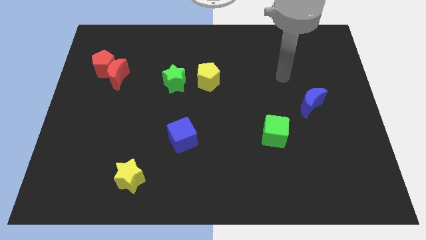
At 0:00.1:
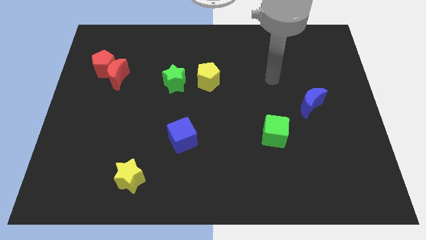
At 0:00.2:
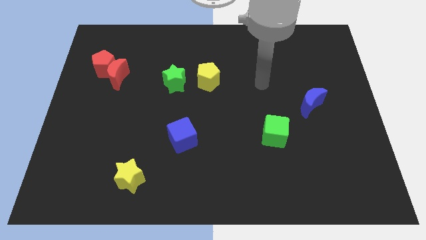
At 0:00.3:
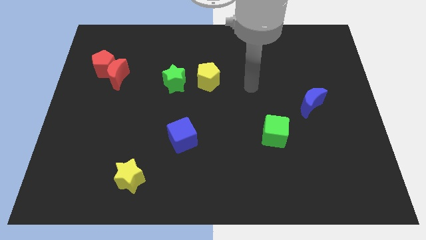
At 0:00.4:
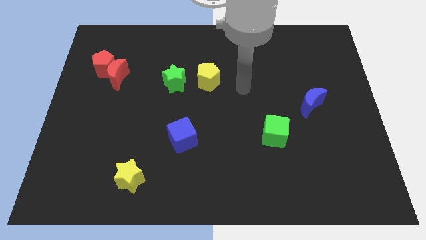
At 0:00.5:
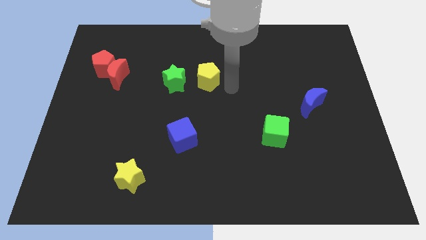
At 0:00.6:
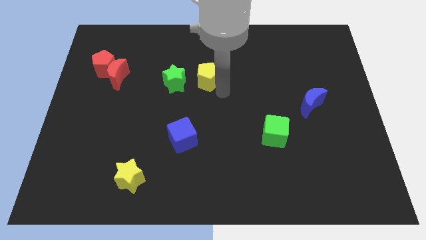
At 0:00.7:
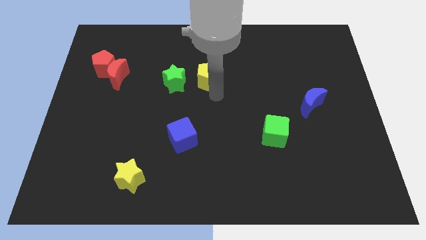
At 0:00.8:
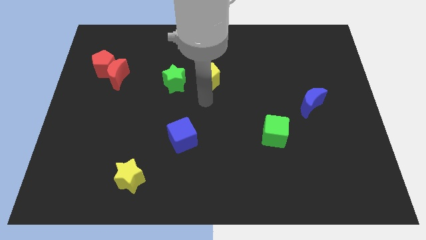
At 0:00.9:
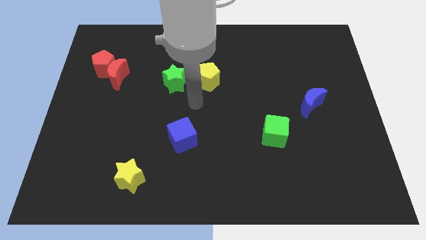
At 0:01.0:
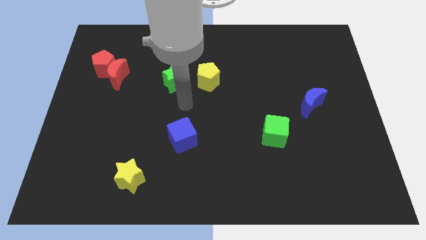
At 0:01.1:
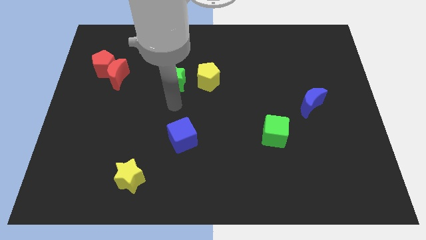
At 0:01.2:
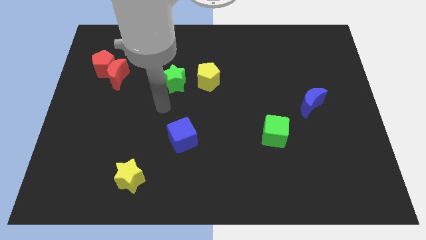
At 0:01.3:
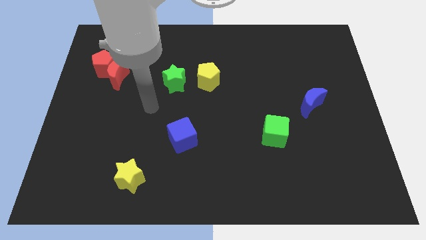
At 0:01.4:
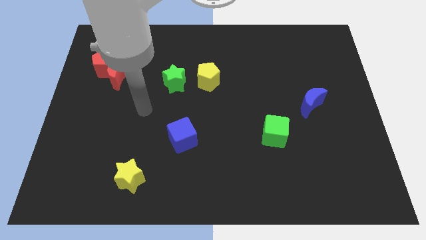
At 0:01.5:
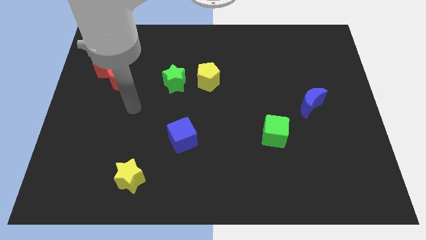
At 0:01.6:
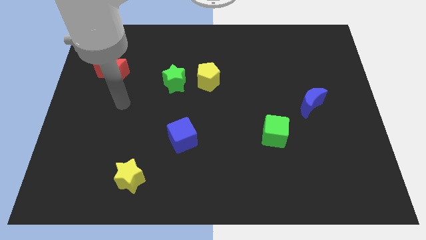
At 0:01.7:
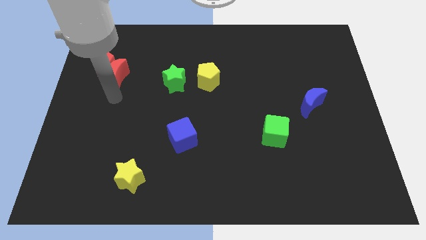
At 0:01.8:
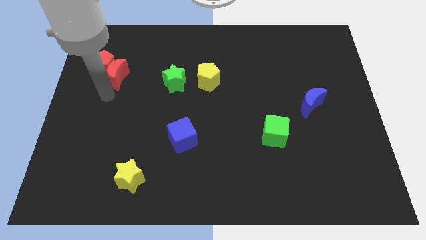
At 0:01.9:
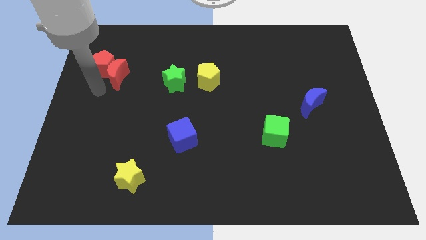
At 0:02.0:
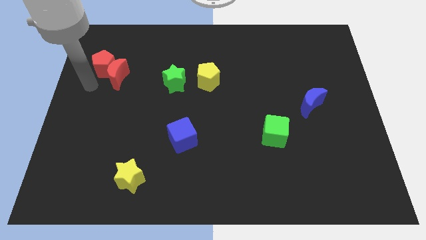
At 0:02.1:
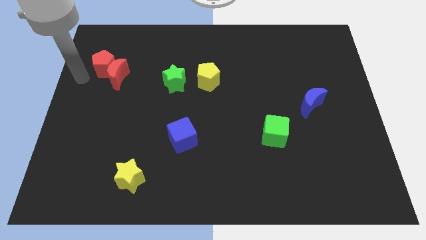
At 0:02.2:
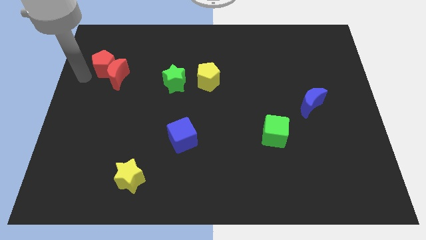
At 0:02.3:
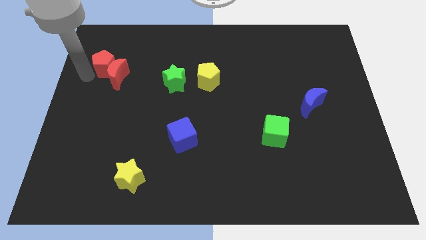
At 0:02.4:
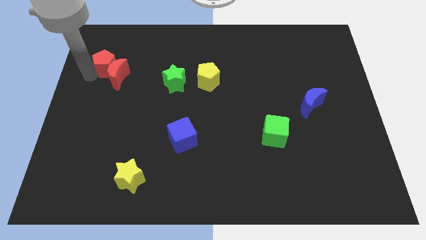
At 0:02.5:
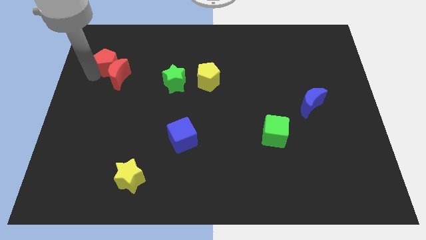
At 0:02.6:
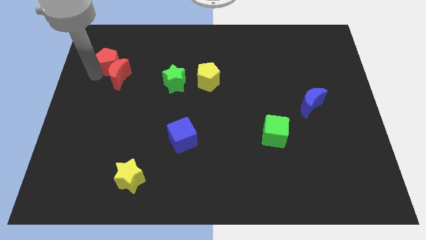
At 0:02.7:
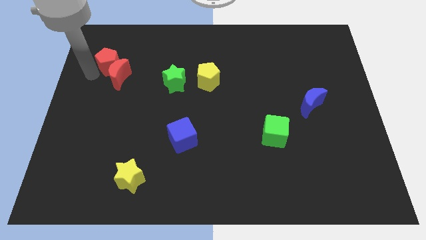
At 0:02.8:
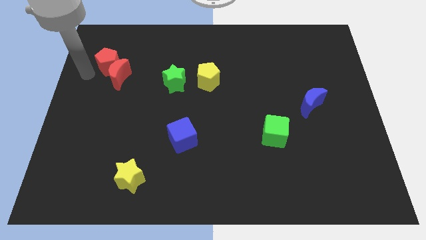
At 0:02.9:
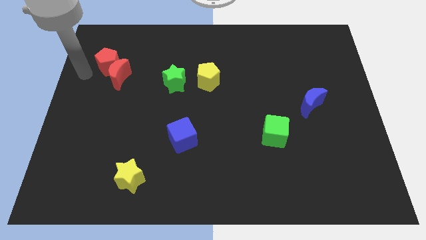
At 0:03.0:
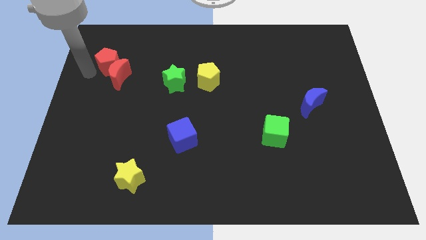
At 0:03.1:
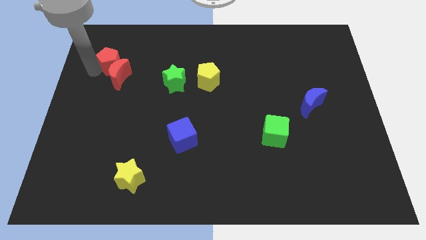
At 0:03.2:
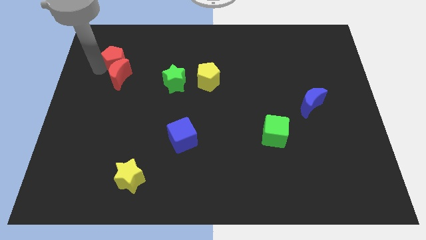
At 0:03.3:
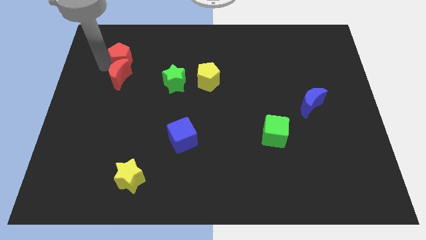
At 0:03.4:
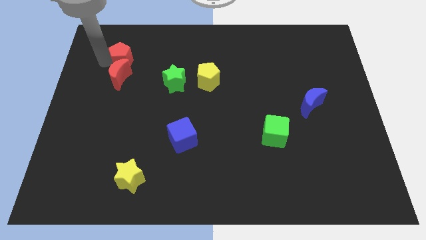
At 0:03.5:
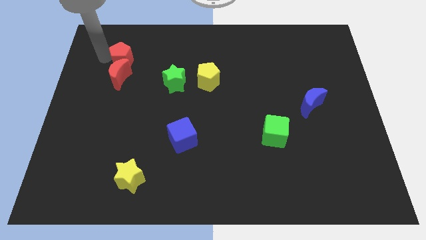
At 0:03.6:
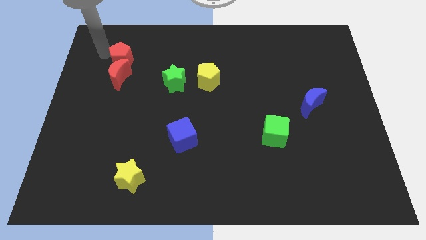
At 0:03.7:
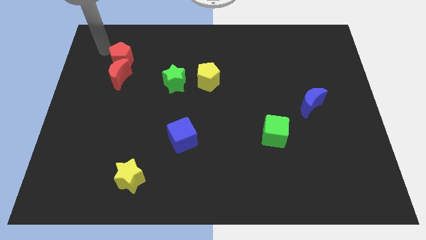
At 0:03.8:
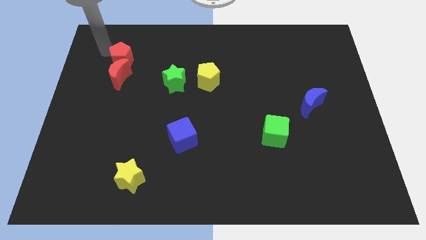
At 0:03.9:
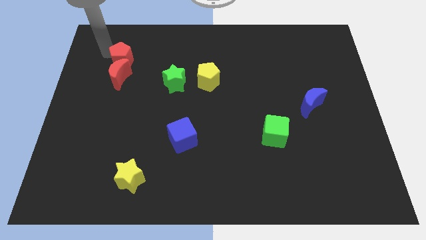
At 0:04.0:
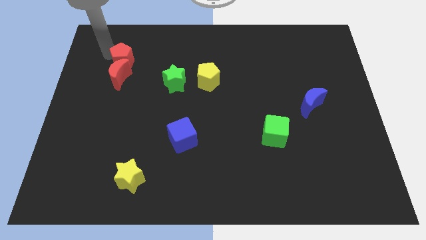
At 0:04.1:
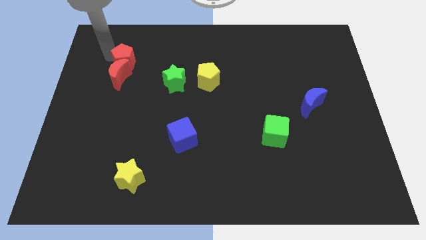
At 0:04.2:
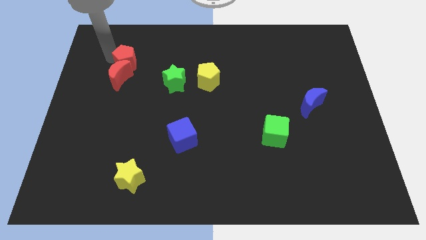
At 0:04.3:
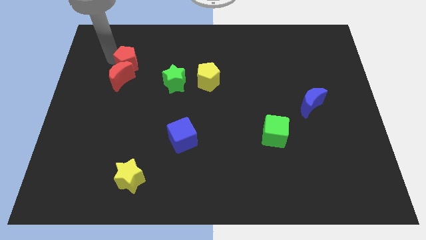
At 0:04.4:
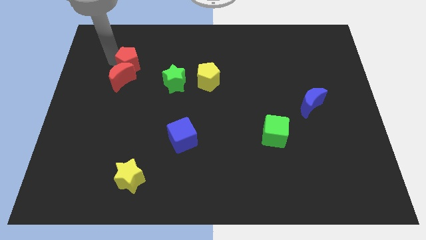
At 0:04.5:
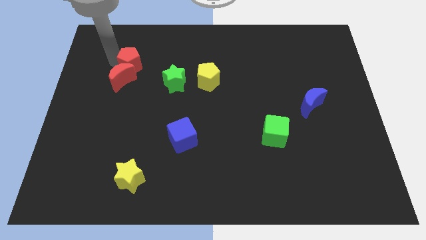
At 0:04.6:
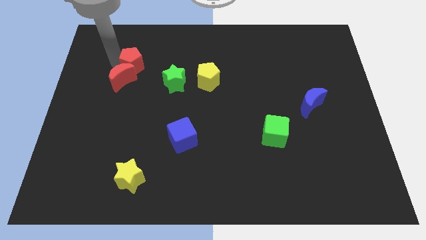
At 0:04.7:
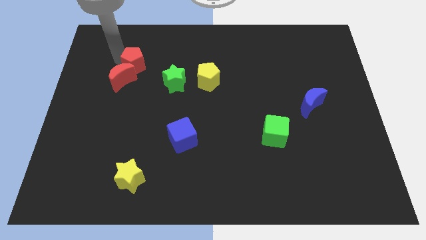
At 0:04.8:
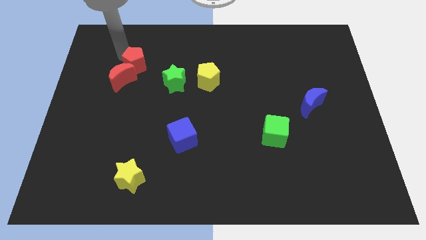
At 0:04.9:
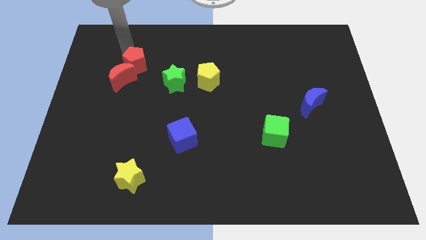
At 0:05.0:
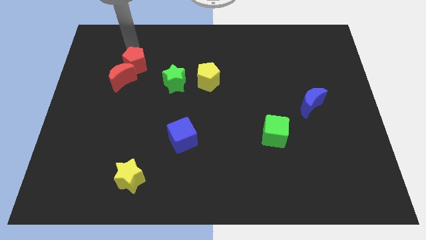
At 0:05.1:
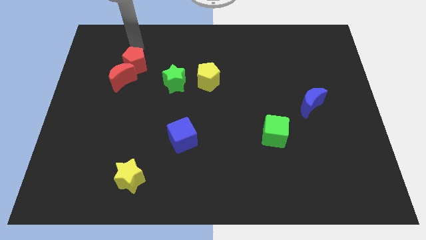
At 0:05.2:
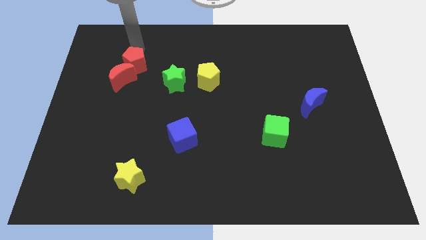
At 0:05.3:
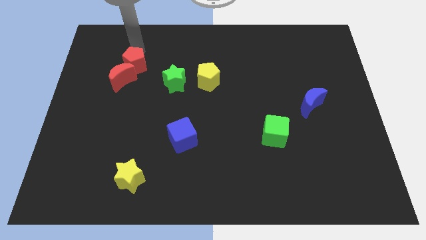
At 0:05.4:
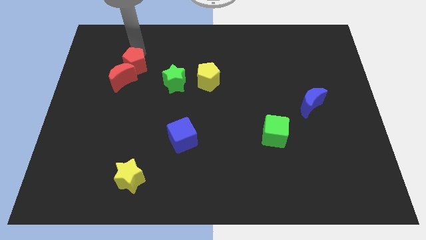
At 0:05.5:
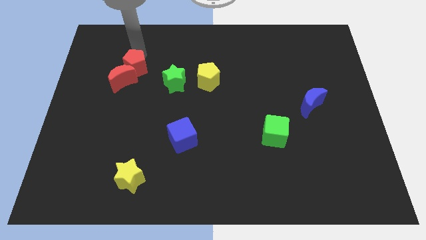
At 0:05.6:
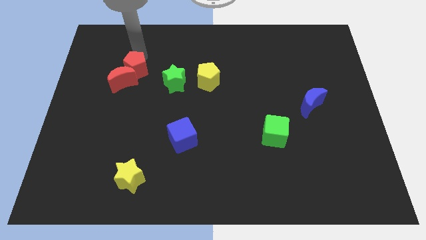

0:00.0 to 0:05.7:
move the red pentagon just left of the green star
